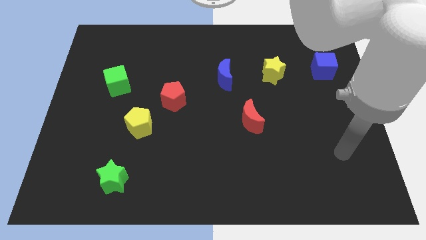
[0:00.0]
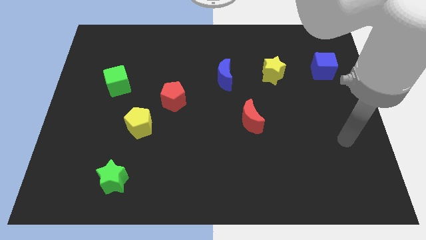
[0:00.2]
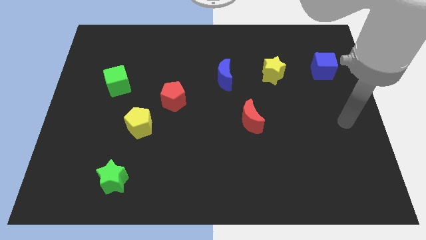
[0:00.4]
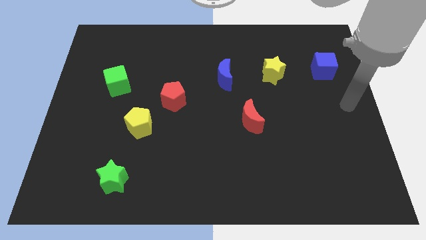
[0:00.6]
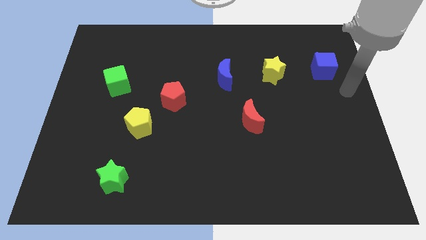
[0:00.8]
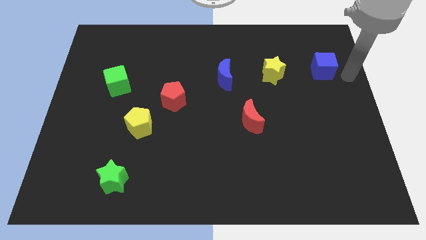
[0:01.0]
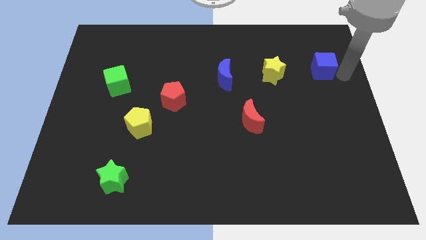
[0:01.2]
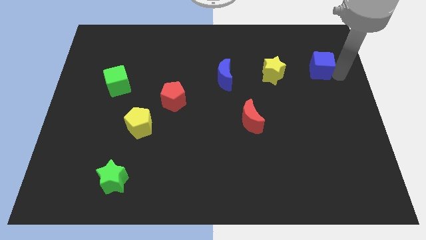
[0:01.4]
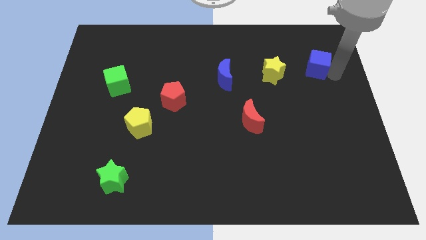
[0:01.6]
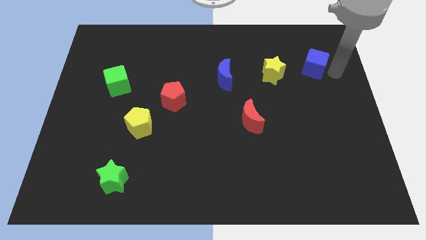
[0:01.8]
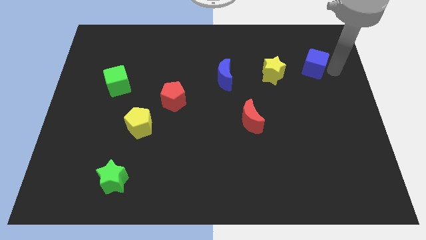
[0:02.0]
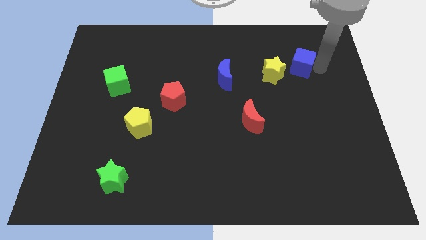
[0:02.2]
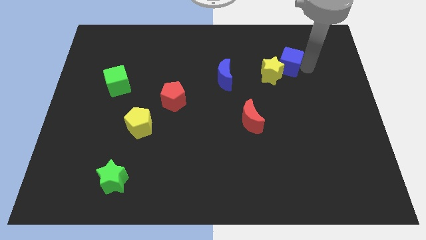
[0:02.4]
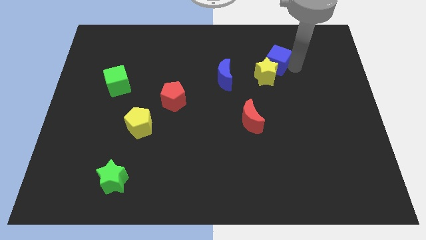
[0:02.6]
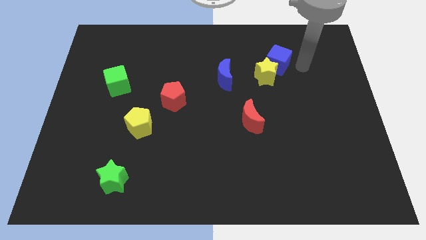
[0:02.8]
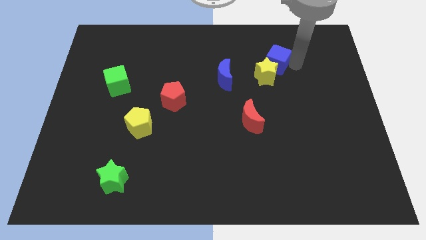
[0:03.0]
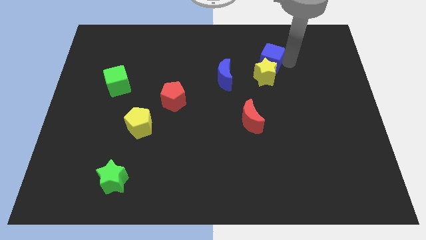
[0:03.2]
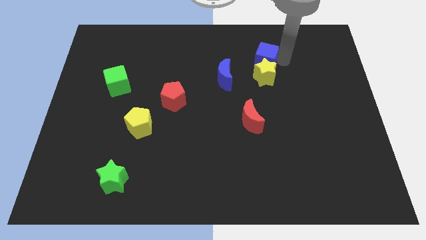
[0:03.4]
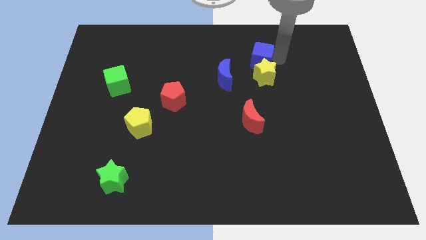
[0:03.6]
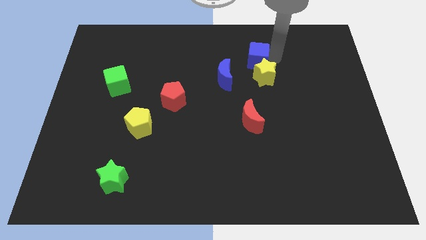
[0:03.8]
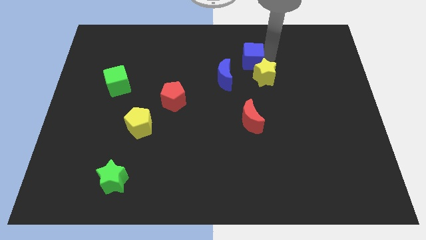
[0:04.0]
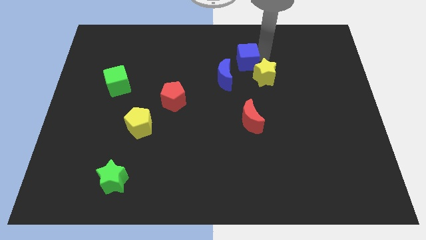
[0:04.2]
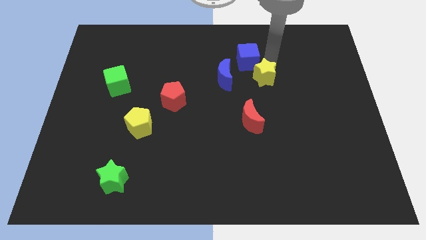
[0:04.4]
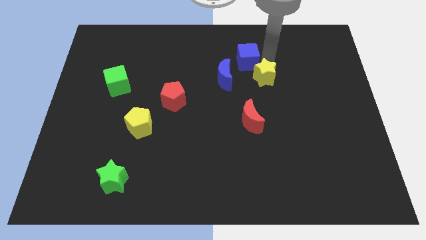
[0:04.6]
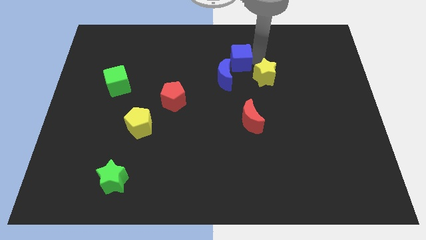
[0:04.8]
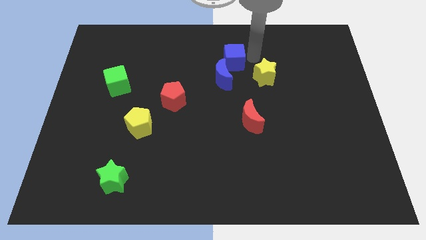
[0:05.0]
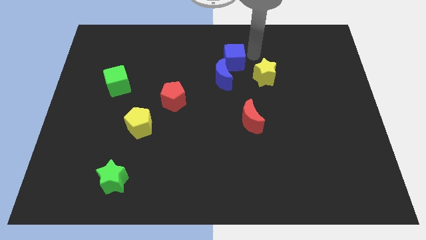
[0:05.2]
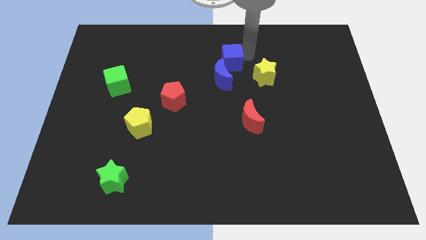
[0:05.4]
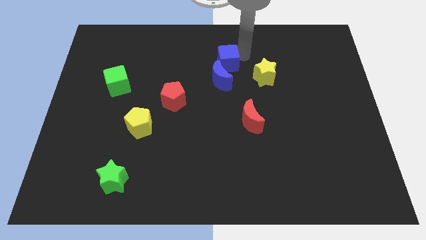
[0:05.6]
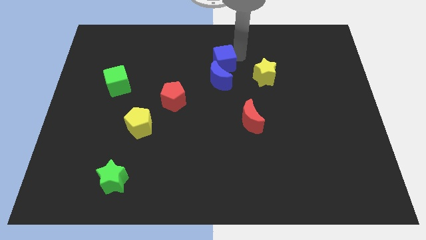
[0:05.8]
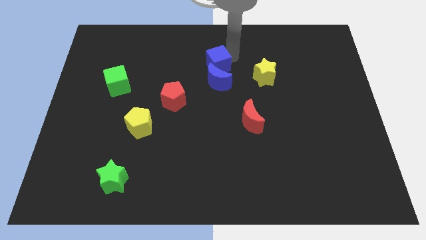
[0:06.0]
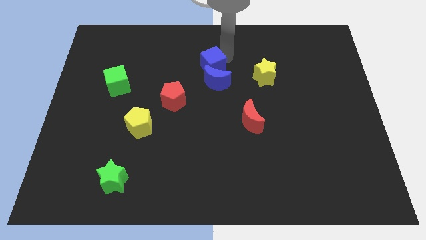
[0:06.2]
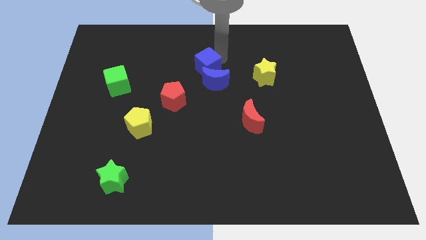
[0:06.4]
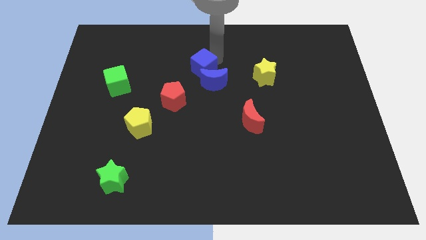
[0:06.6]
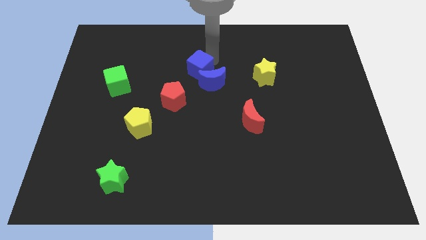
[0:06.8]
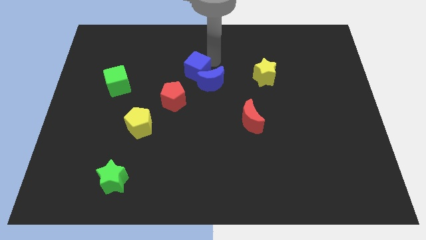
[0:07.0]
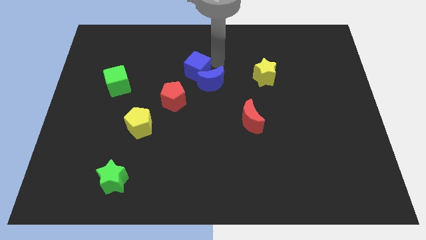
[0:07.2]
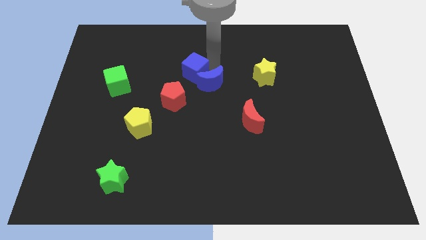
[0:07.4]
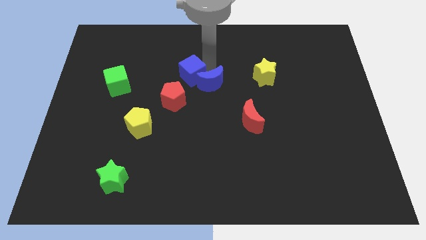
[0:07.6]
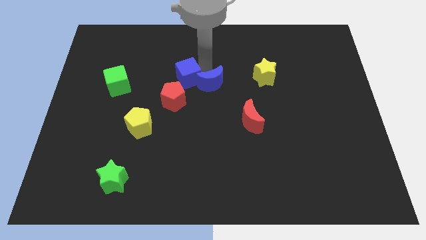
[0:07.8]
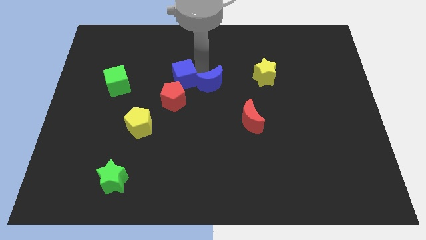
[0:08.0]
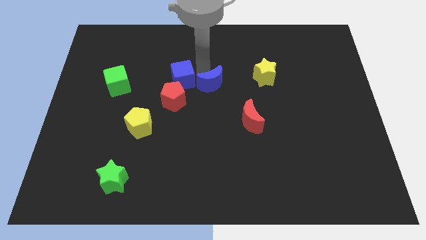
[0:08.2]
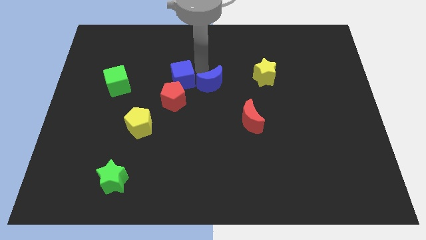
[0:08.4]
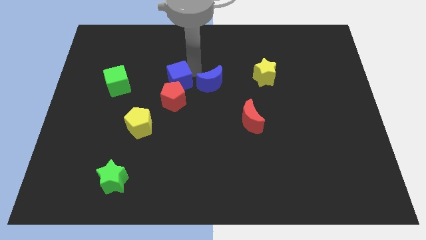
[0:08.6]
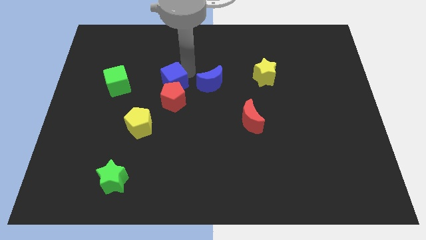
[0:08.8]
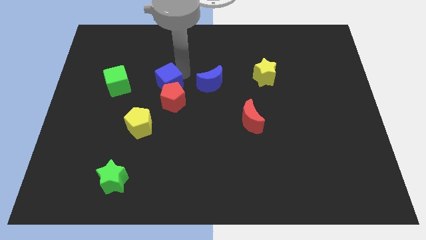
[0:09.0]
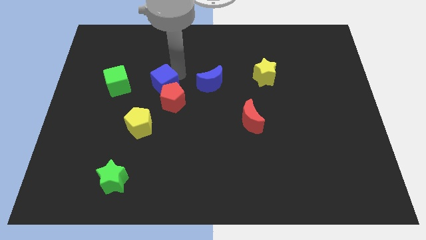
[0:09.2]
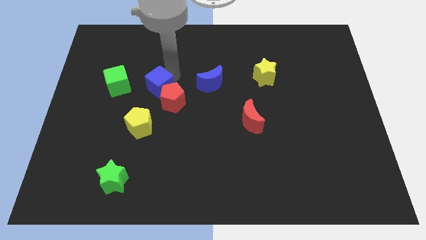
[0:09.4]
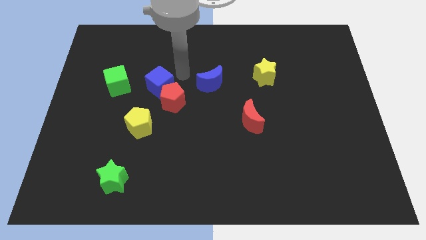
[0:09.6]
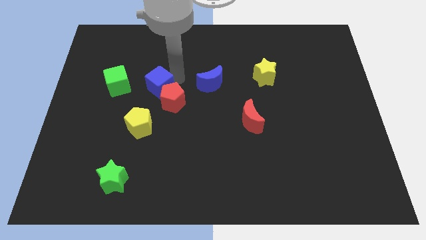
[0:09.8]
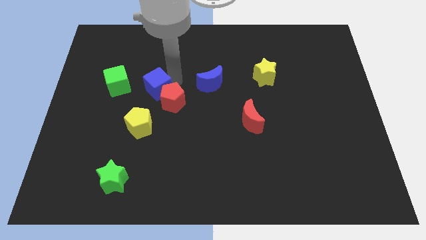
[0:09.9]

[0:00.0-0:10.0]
put the blue cube to the left of the red pentagon

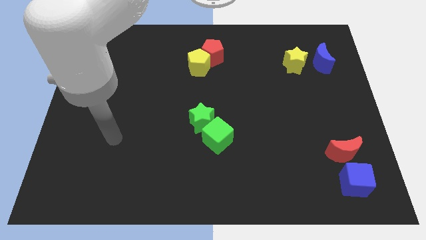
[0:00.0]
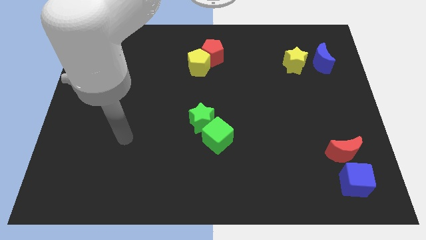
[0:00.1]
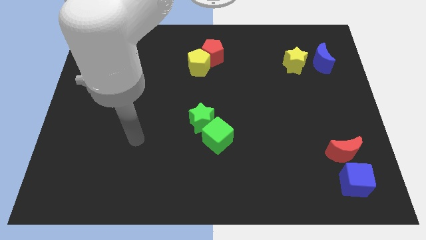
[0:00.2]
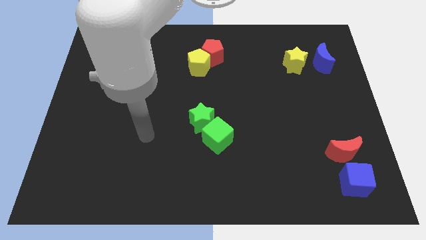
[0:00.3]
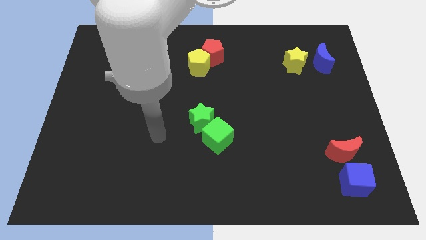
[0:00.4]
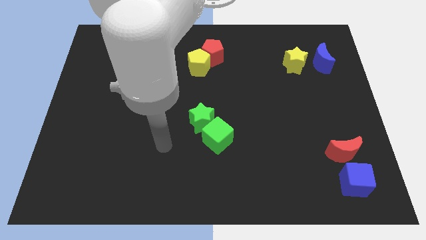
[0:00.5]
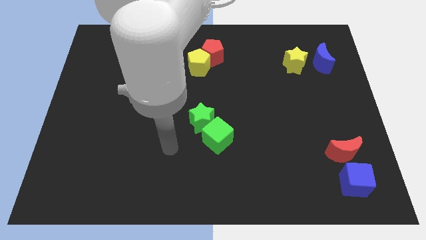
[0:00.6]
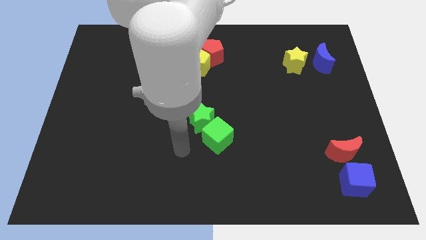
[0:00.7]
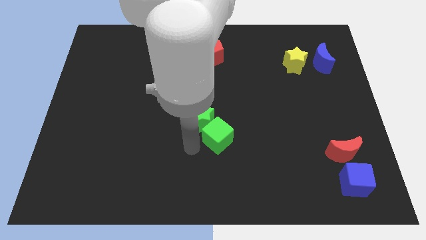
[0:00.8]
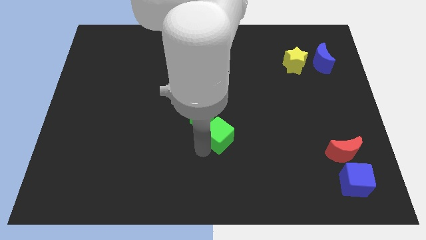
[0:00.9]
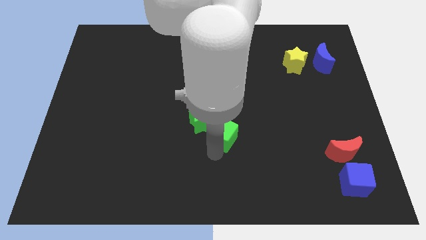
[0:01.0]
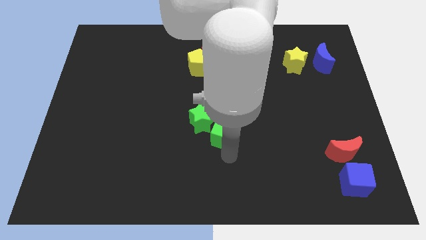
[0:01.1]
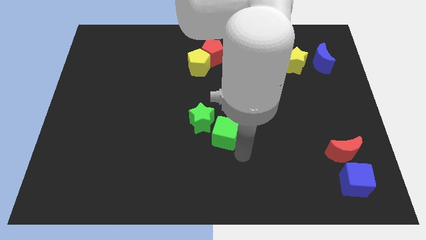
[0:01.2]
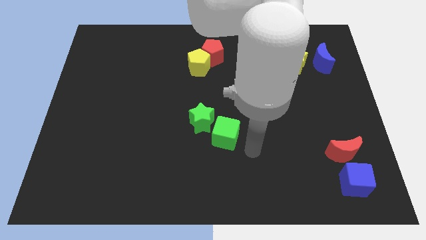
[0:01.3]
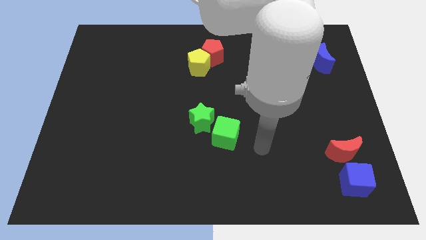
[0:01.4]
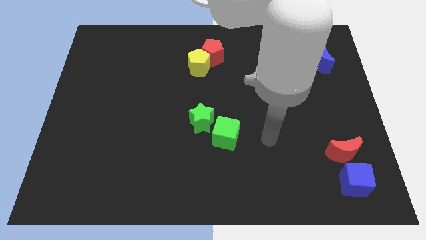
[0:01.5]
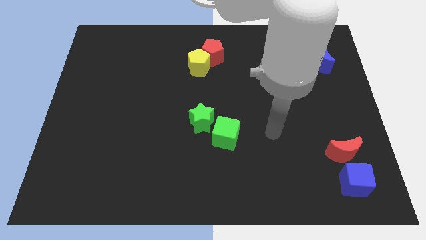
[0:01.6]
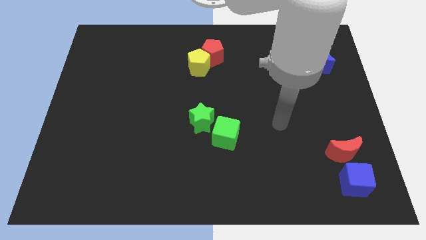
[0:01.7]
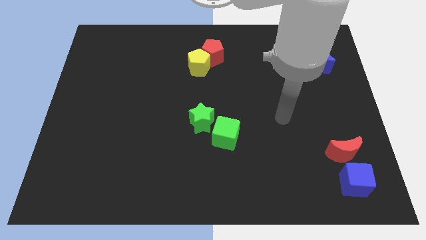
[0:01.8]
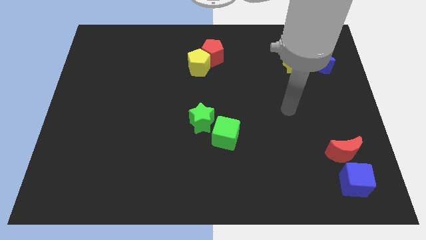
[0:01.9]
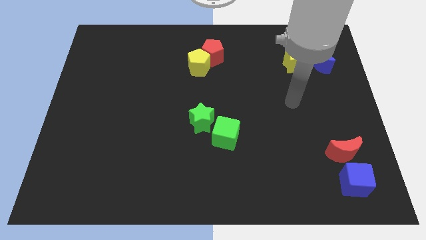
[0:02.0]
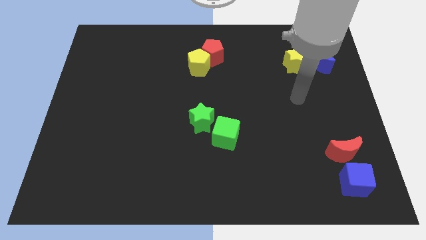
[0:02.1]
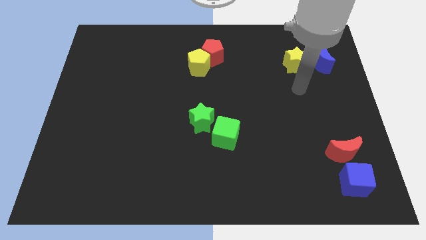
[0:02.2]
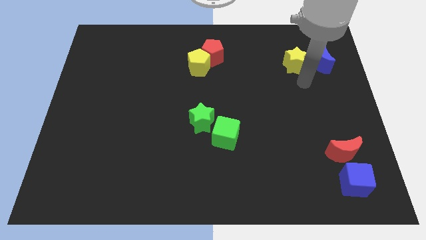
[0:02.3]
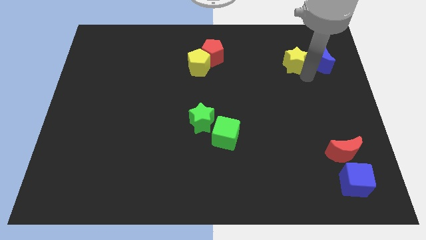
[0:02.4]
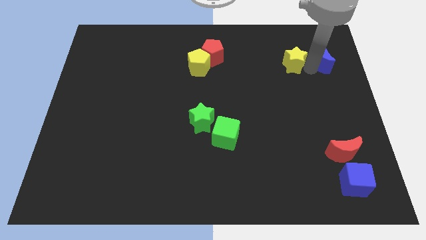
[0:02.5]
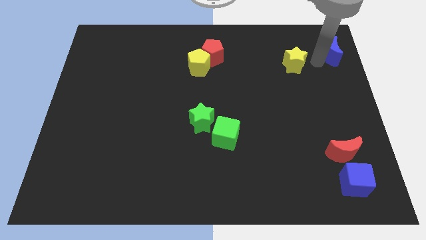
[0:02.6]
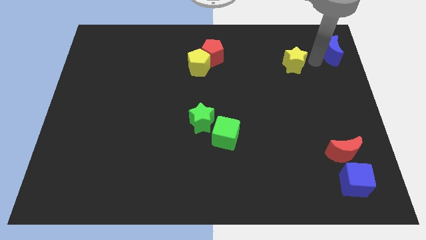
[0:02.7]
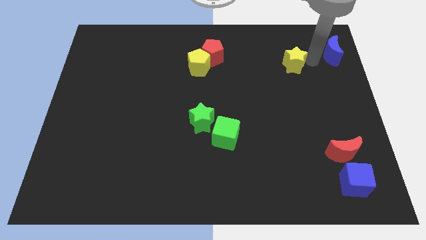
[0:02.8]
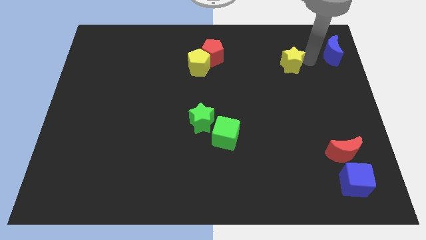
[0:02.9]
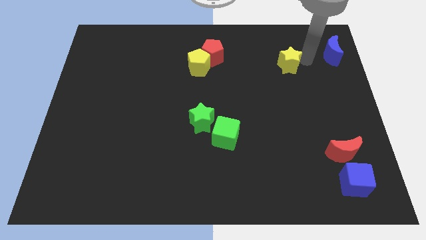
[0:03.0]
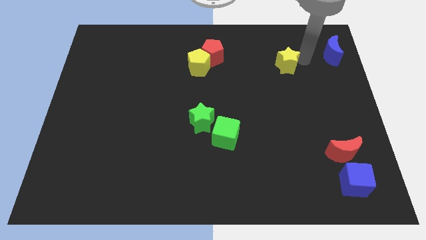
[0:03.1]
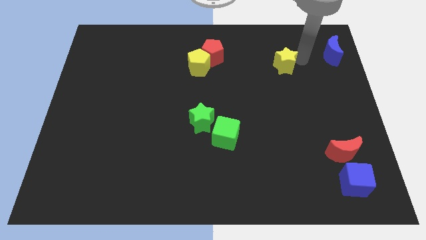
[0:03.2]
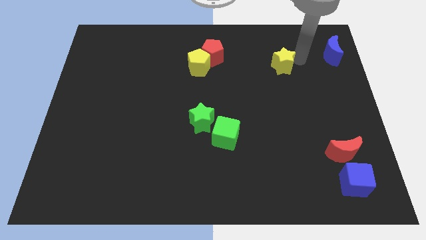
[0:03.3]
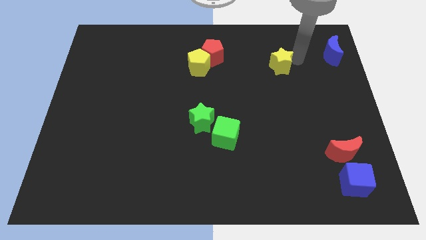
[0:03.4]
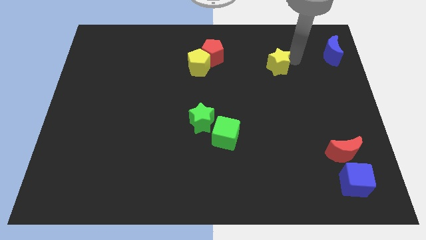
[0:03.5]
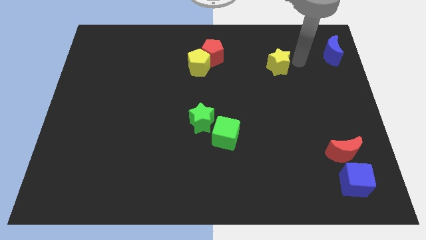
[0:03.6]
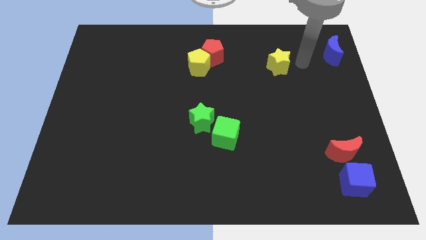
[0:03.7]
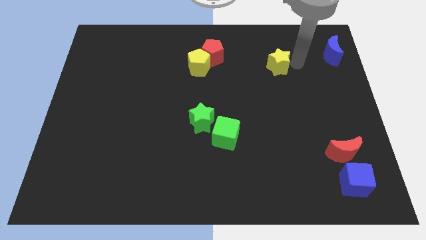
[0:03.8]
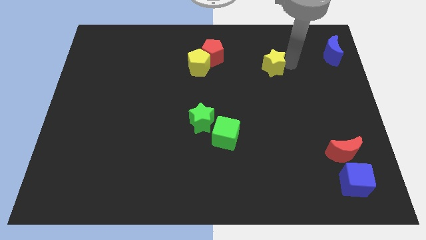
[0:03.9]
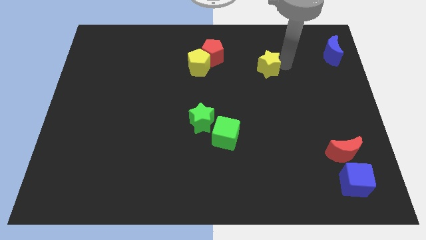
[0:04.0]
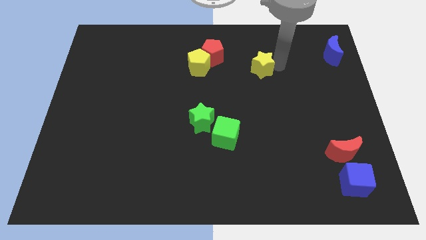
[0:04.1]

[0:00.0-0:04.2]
move the yellow star to the right of the yellow pentagon
